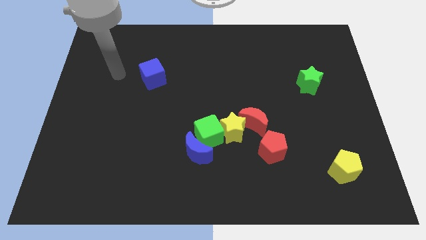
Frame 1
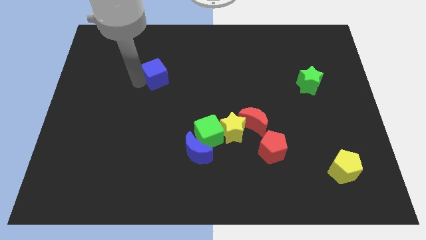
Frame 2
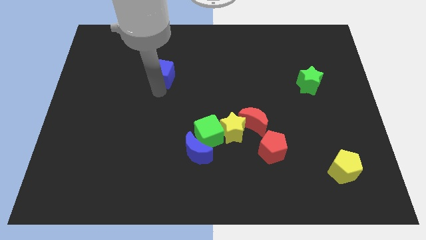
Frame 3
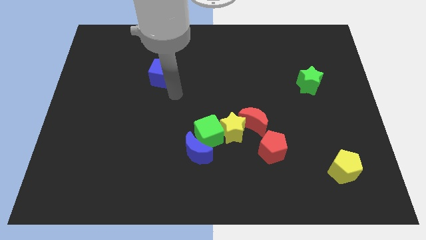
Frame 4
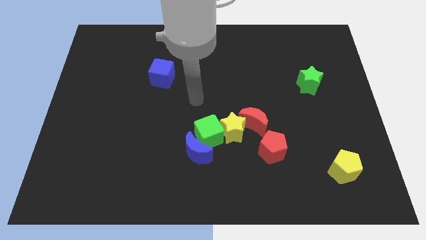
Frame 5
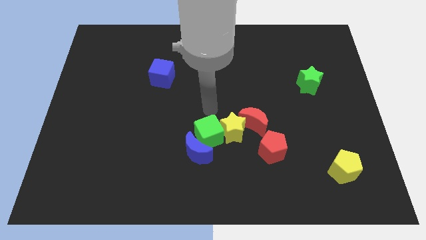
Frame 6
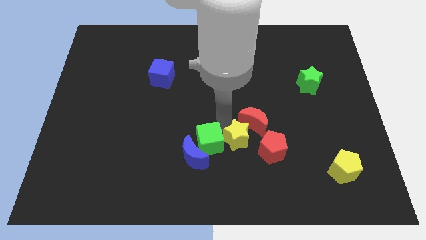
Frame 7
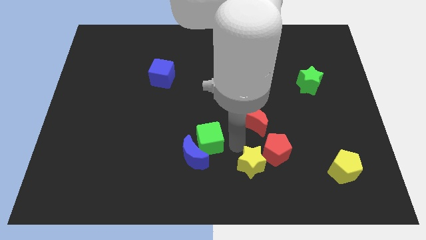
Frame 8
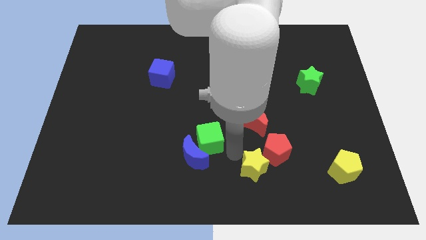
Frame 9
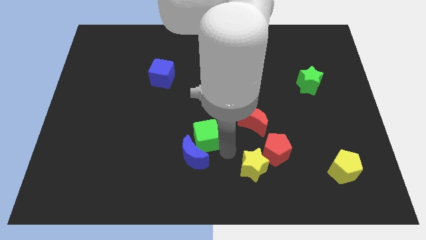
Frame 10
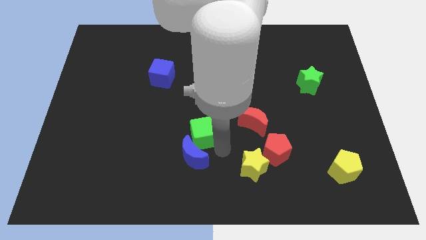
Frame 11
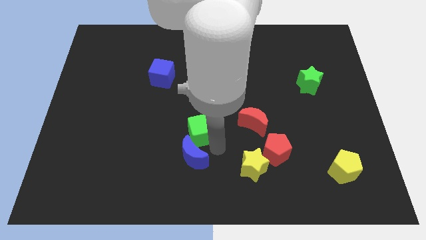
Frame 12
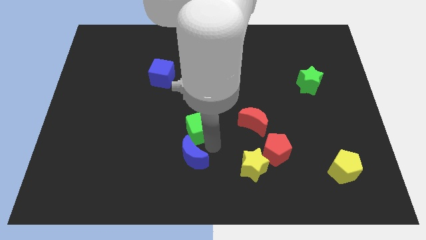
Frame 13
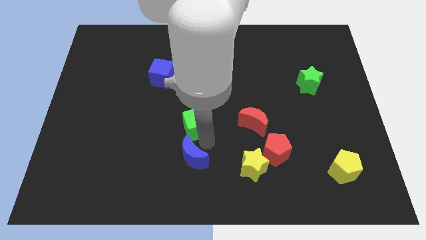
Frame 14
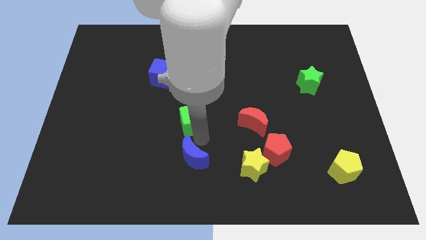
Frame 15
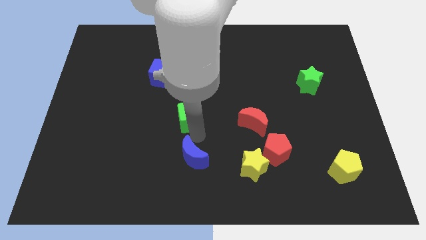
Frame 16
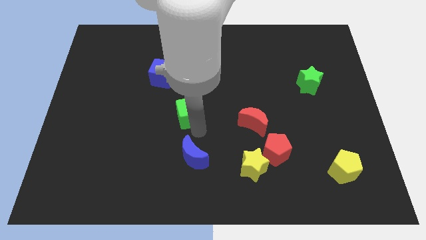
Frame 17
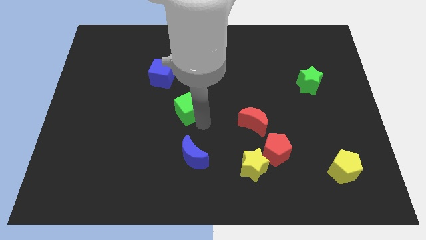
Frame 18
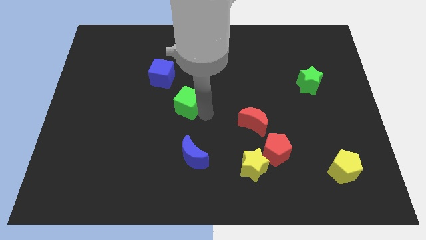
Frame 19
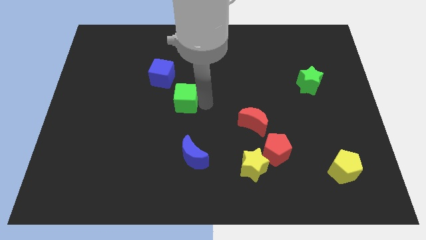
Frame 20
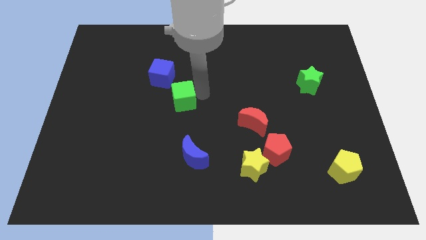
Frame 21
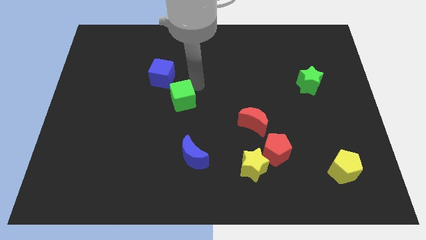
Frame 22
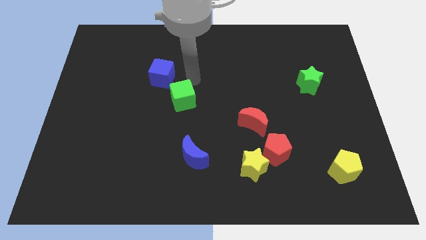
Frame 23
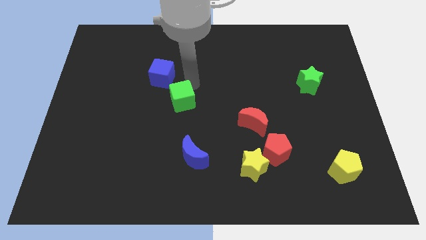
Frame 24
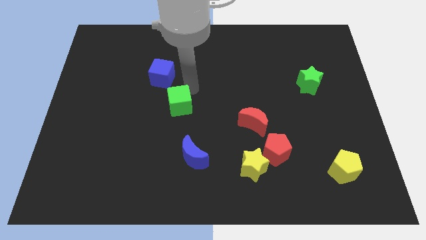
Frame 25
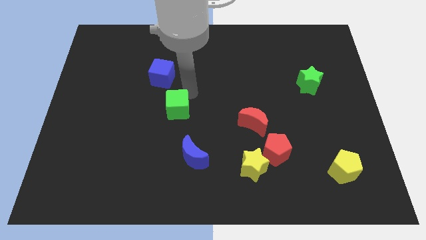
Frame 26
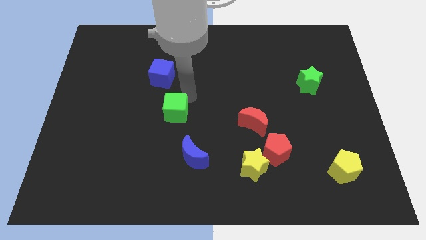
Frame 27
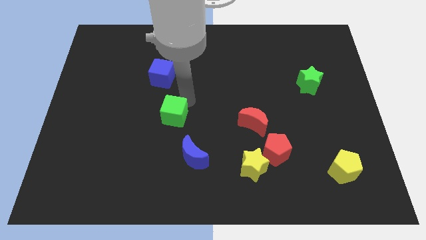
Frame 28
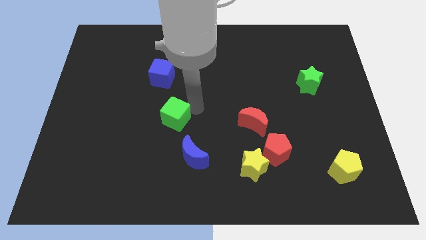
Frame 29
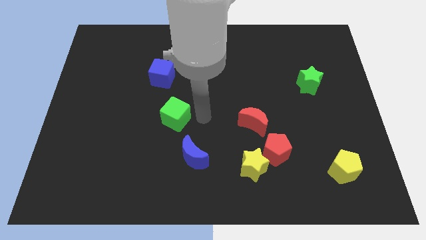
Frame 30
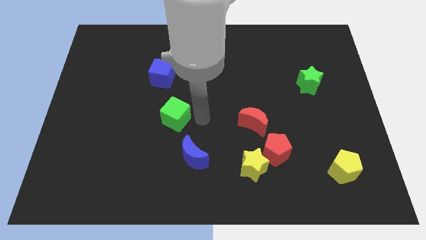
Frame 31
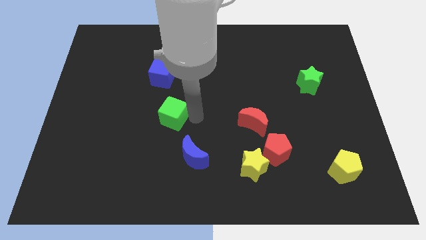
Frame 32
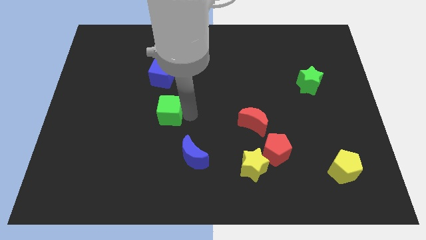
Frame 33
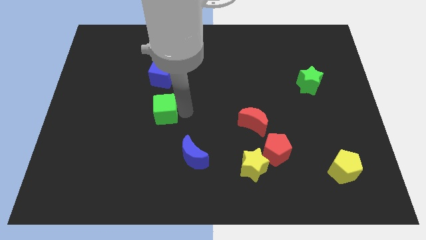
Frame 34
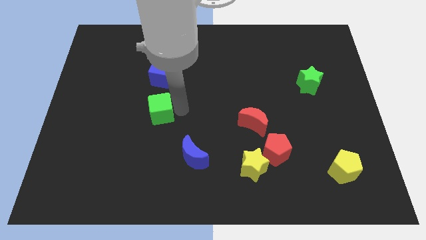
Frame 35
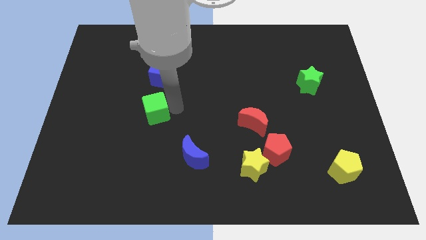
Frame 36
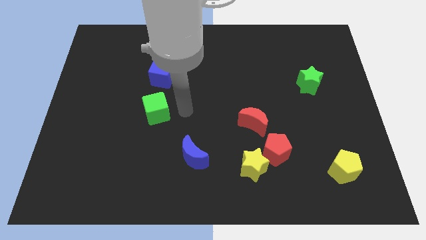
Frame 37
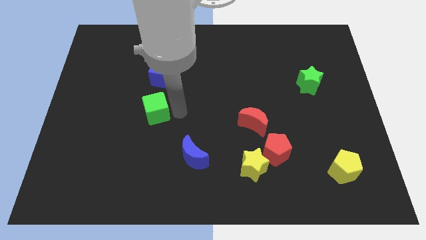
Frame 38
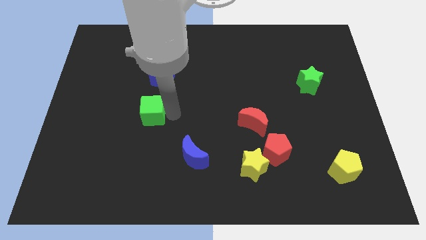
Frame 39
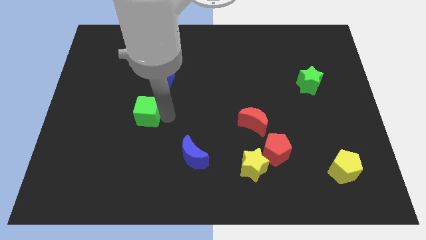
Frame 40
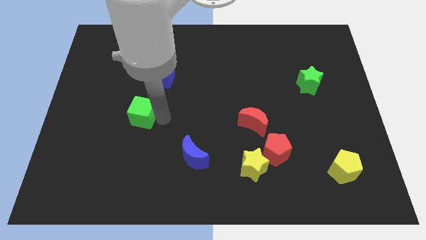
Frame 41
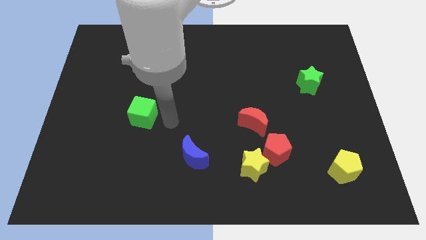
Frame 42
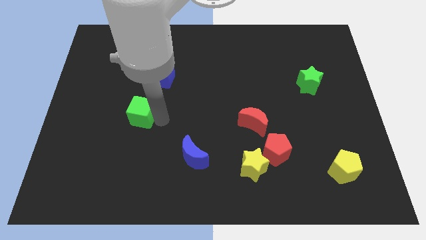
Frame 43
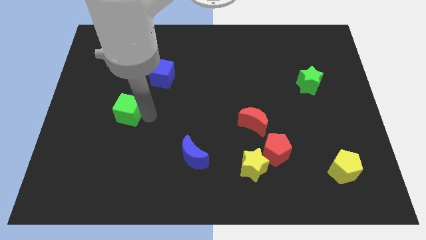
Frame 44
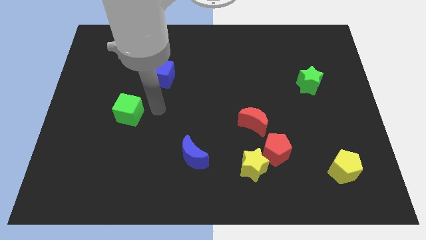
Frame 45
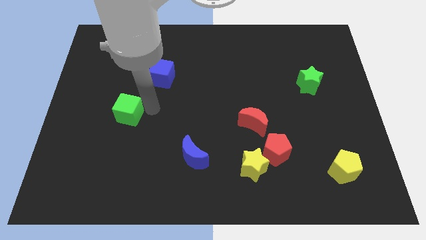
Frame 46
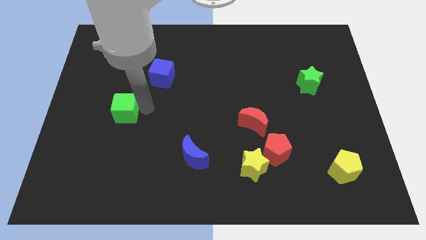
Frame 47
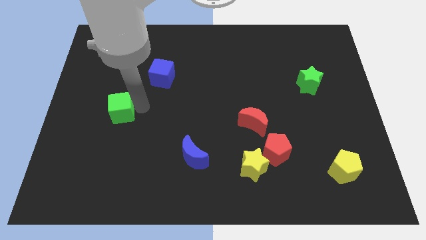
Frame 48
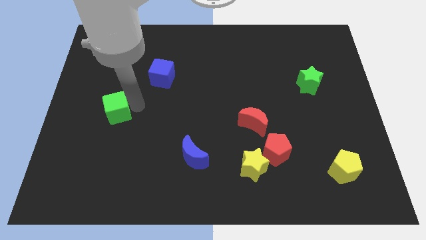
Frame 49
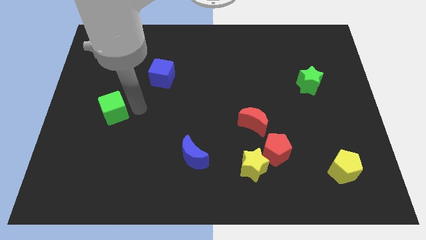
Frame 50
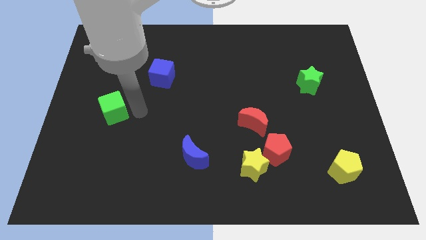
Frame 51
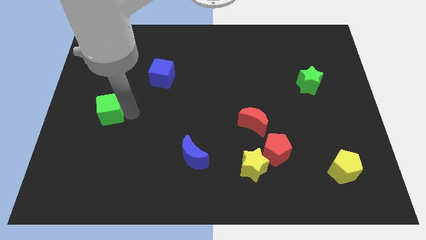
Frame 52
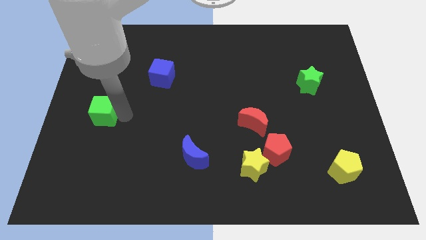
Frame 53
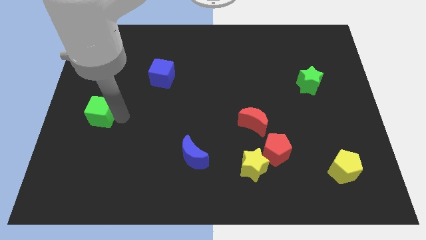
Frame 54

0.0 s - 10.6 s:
move the green cube to the center left

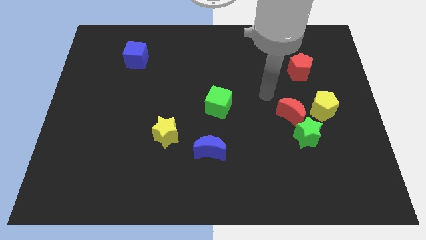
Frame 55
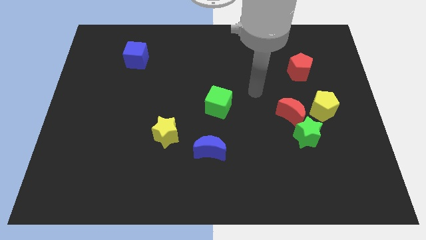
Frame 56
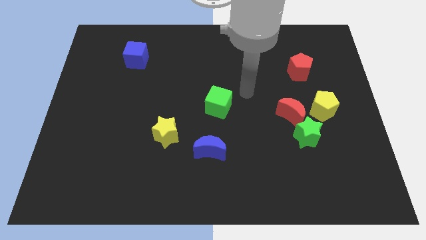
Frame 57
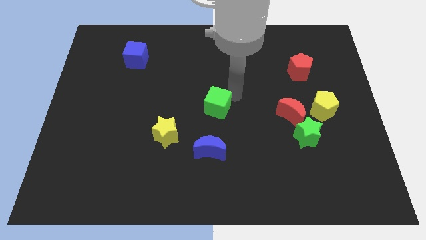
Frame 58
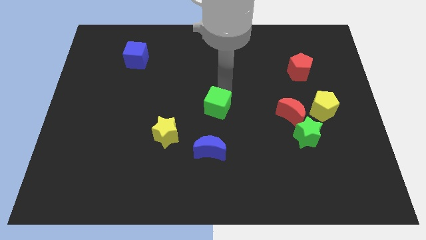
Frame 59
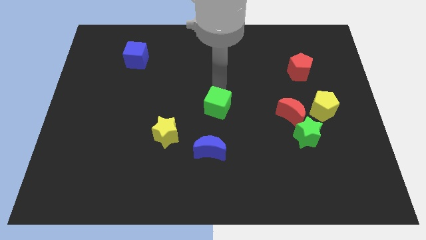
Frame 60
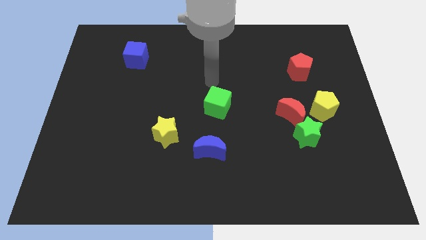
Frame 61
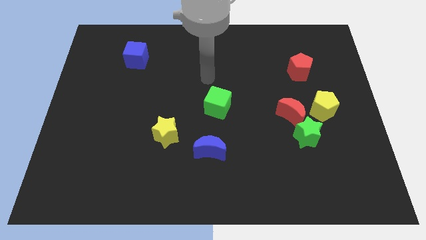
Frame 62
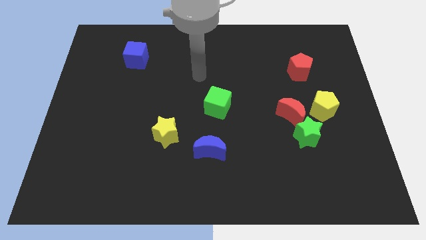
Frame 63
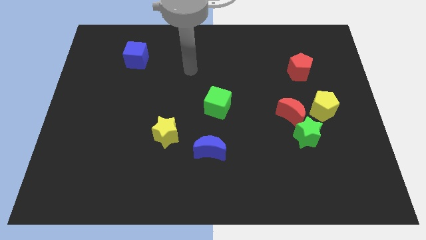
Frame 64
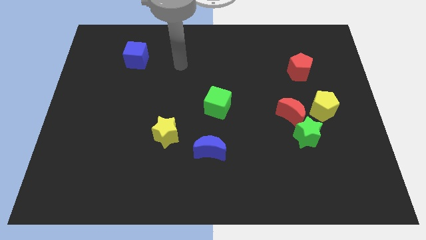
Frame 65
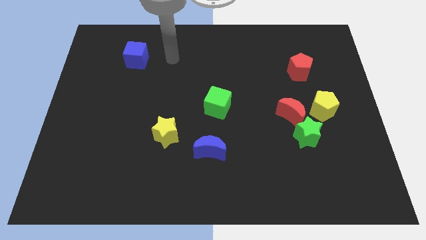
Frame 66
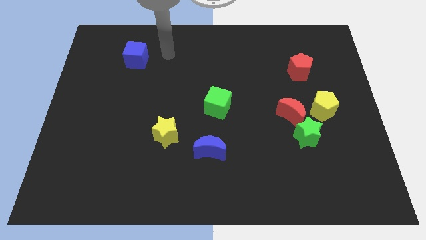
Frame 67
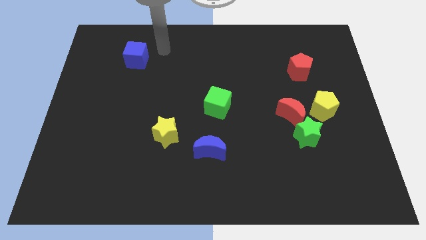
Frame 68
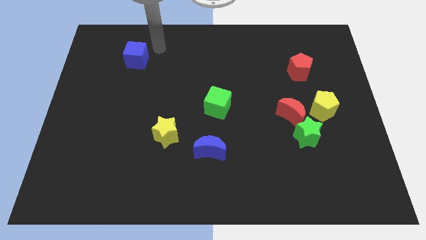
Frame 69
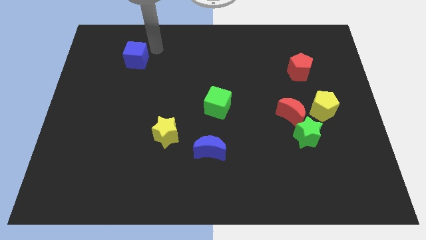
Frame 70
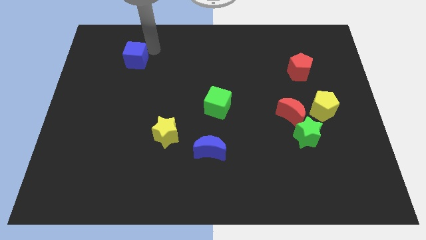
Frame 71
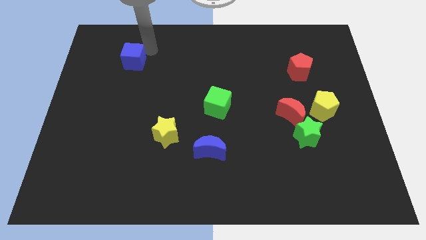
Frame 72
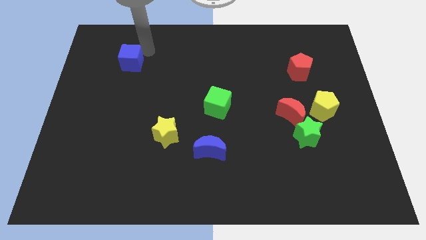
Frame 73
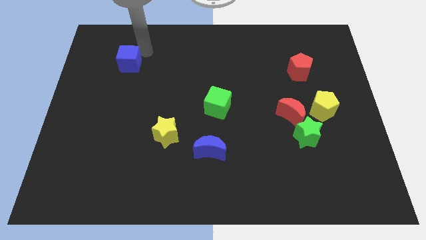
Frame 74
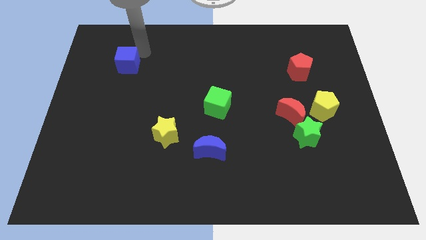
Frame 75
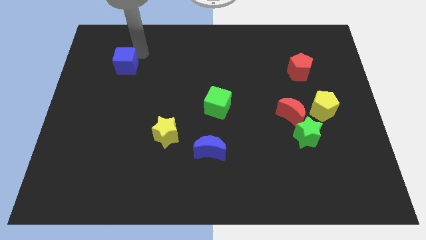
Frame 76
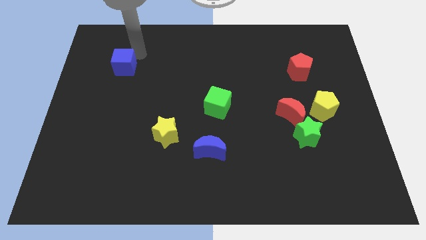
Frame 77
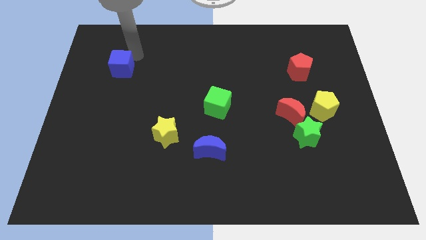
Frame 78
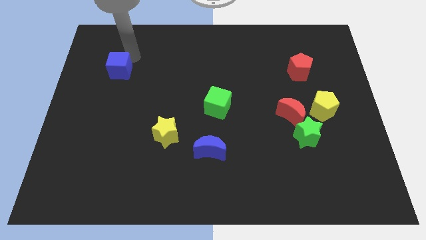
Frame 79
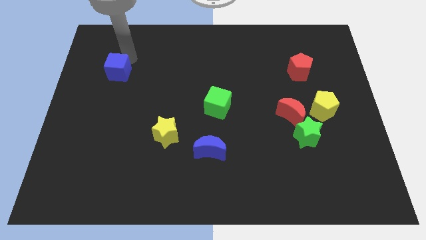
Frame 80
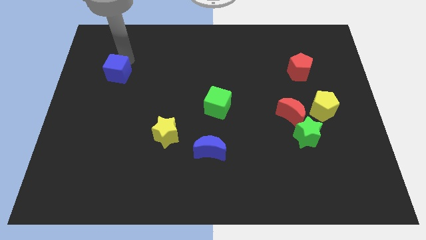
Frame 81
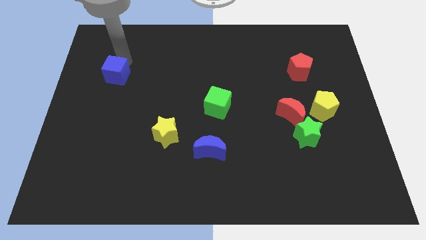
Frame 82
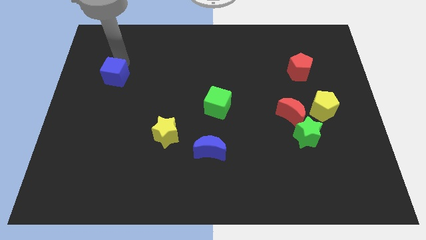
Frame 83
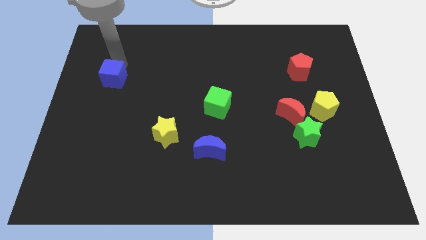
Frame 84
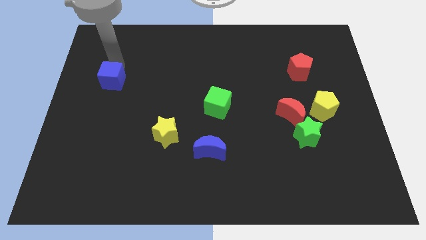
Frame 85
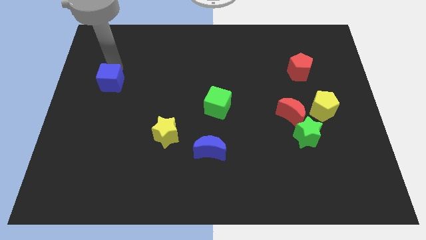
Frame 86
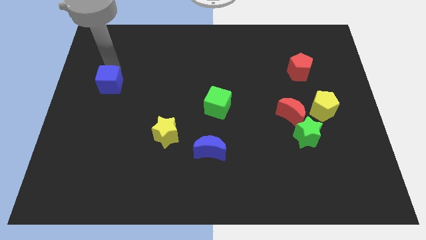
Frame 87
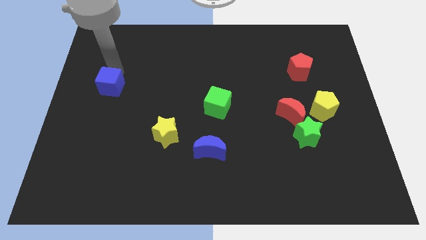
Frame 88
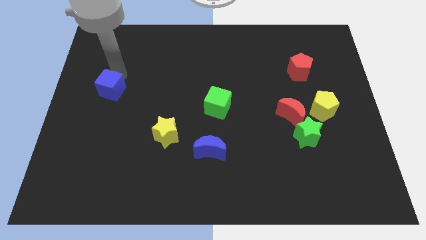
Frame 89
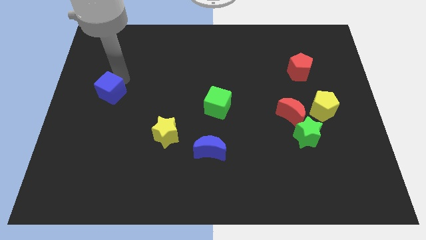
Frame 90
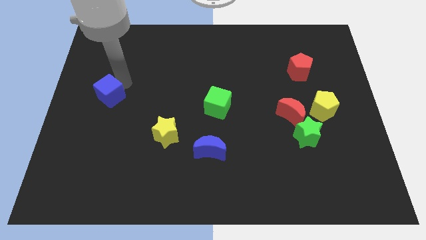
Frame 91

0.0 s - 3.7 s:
slide the blue cube to the left side of the board
